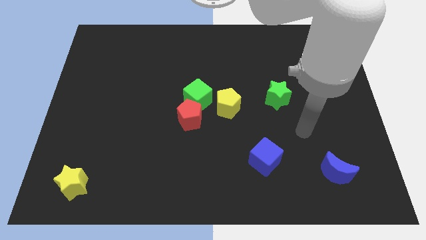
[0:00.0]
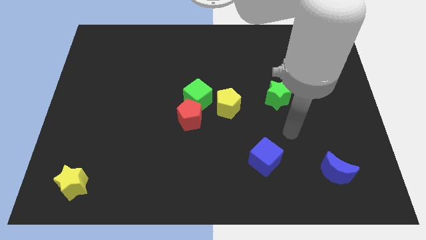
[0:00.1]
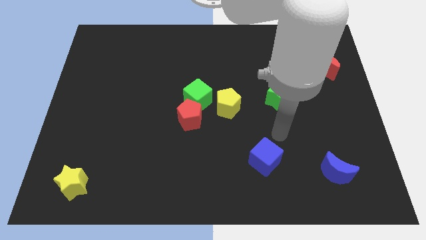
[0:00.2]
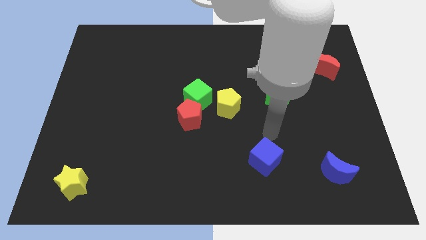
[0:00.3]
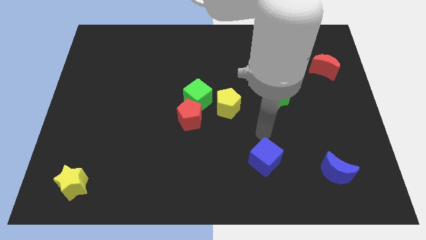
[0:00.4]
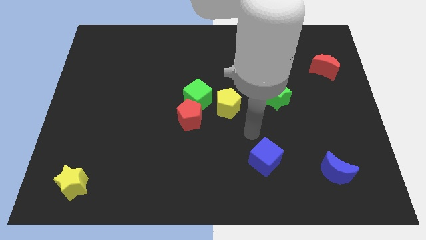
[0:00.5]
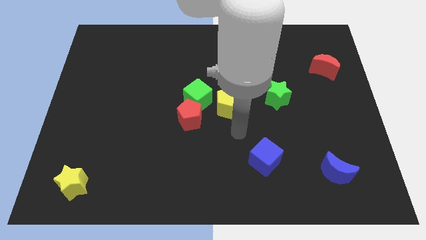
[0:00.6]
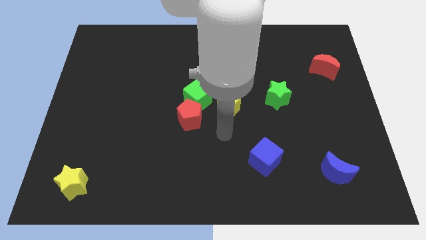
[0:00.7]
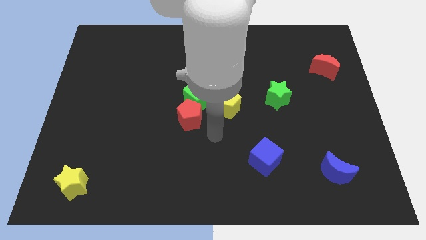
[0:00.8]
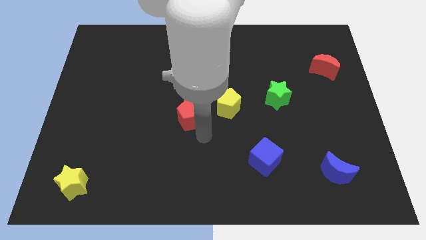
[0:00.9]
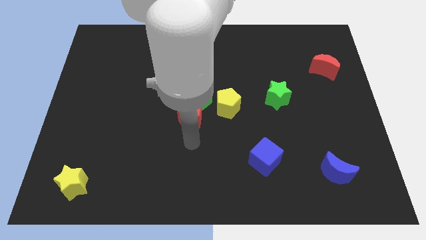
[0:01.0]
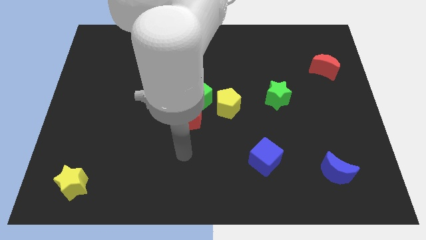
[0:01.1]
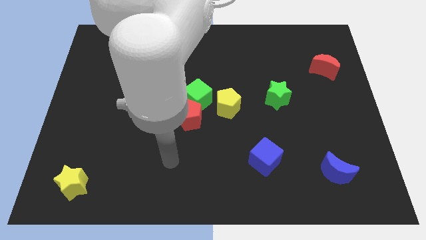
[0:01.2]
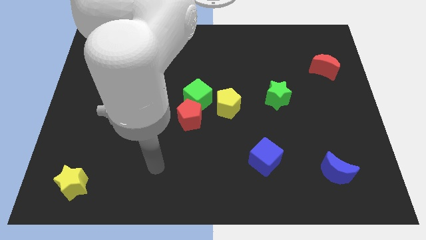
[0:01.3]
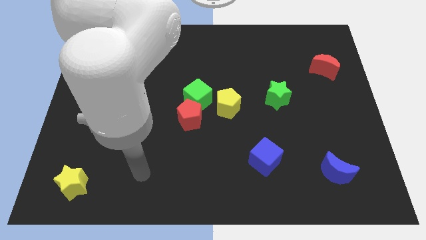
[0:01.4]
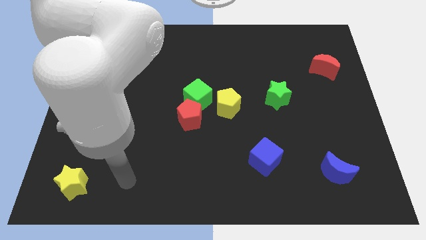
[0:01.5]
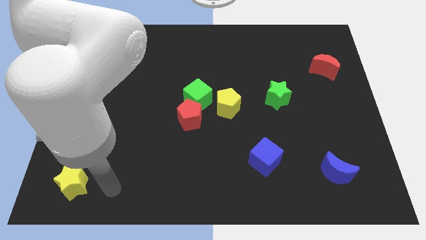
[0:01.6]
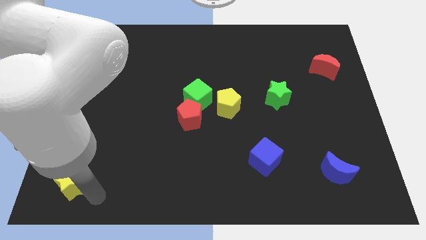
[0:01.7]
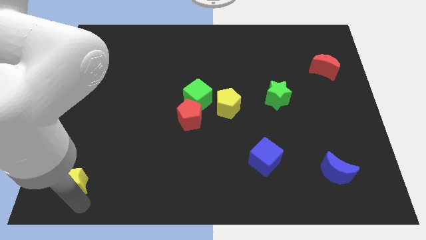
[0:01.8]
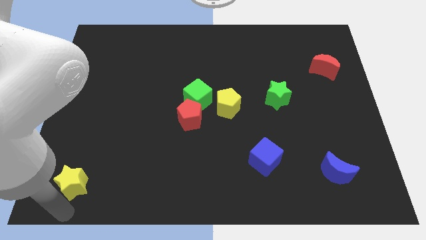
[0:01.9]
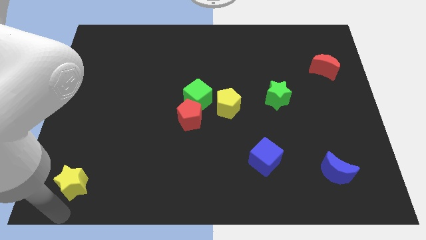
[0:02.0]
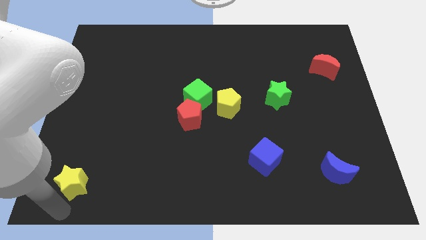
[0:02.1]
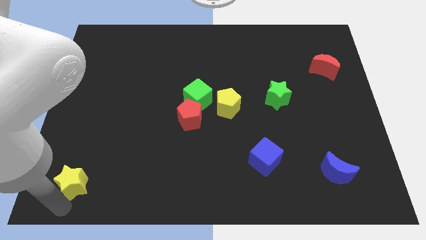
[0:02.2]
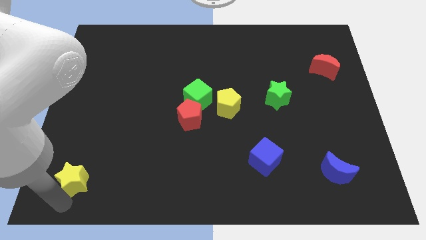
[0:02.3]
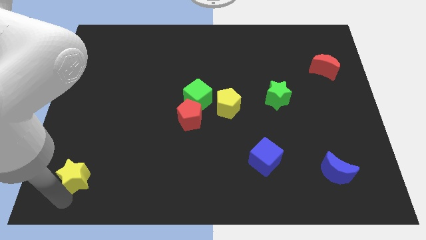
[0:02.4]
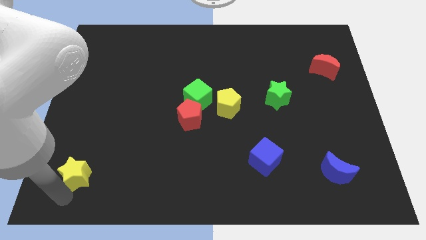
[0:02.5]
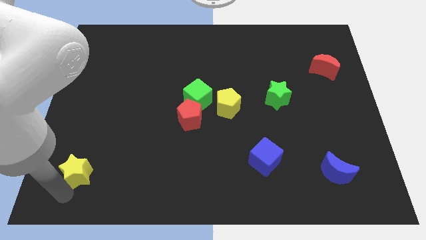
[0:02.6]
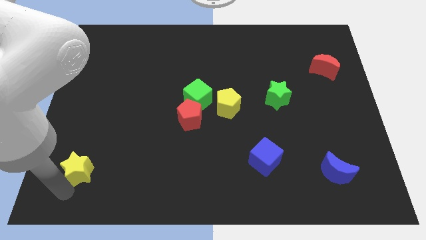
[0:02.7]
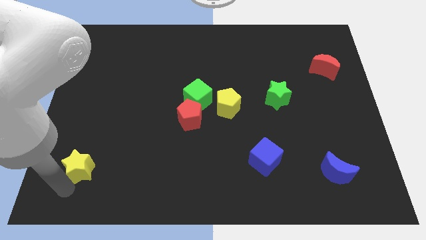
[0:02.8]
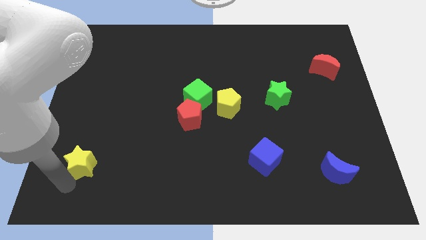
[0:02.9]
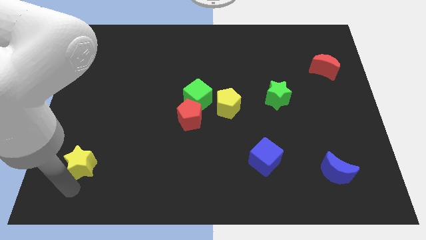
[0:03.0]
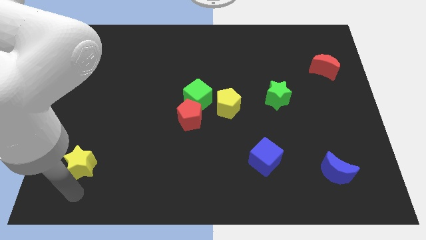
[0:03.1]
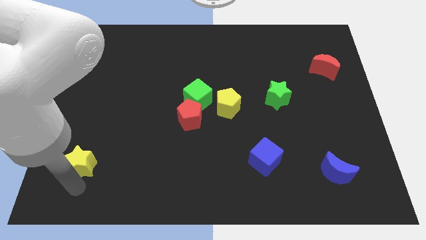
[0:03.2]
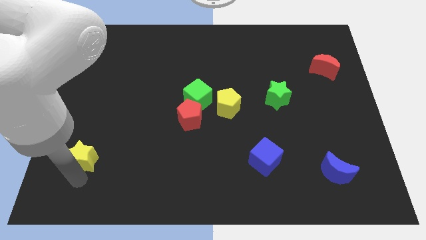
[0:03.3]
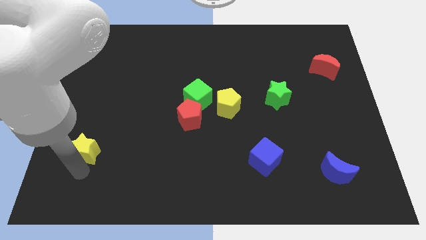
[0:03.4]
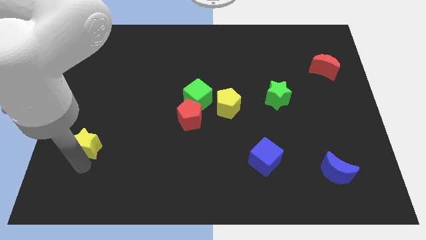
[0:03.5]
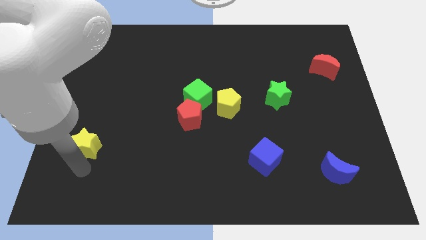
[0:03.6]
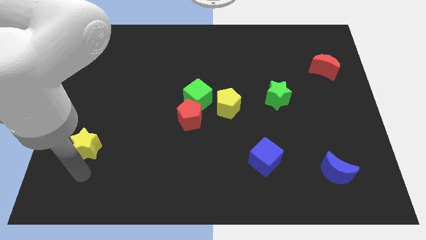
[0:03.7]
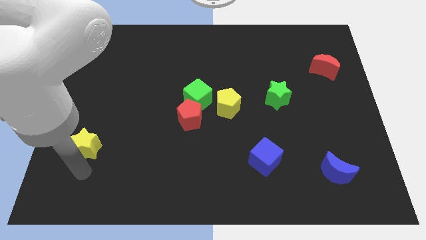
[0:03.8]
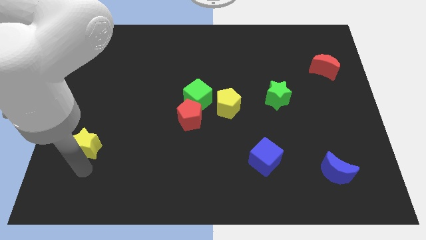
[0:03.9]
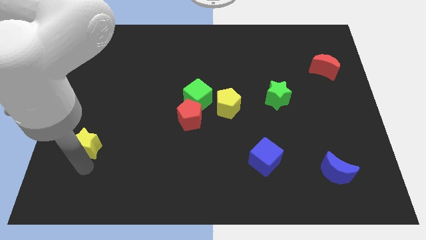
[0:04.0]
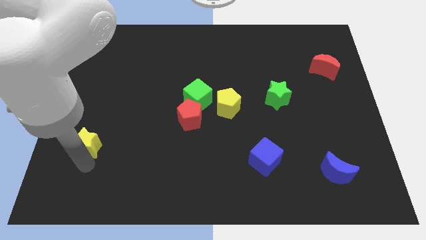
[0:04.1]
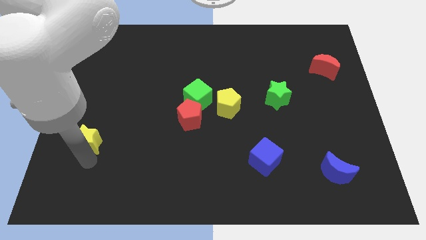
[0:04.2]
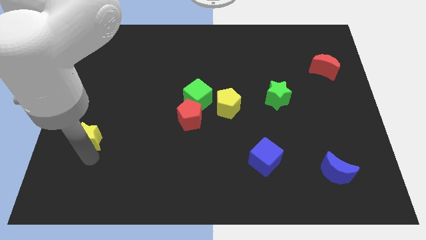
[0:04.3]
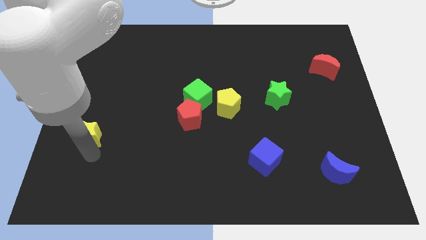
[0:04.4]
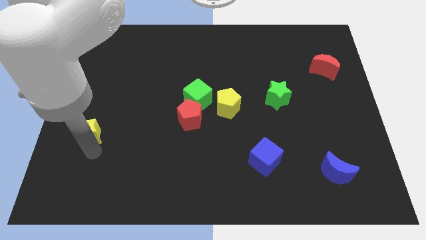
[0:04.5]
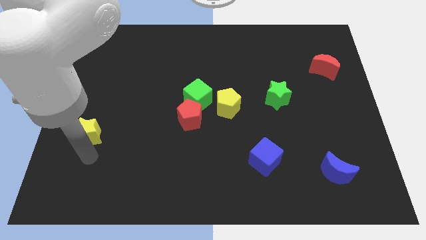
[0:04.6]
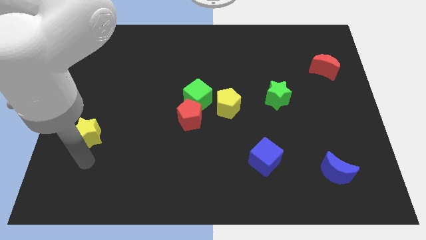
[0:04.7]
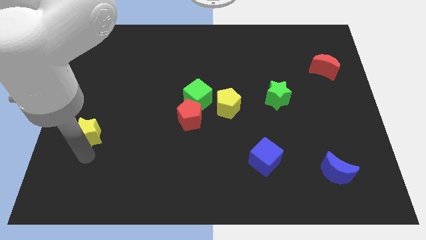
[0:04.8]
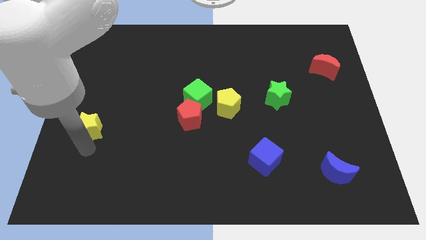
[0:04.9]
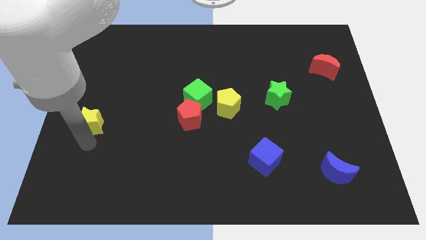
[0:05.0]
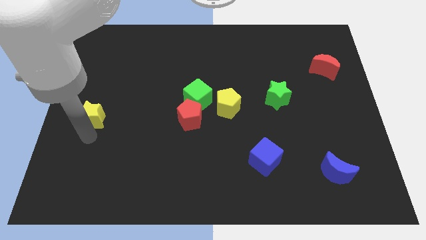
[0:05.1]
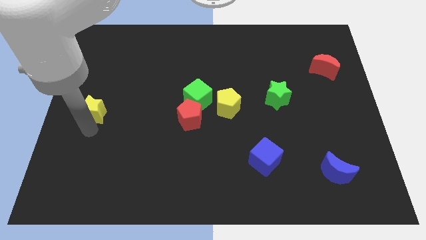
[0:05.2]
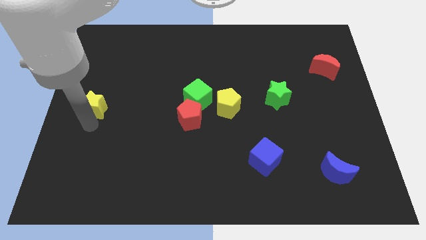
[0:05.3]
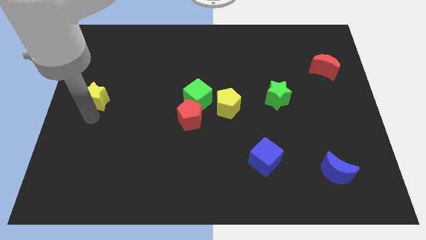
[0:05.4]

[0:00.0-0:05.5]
move the yellow star upwards

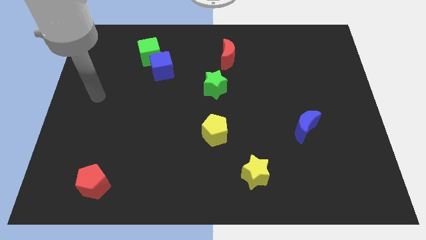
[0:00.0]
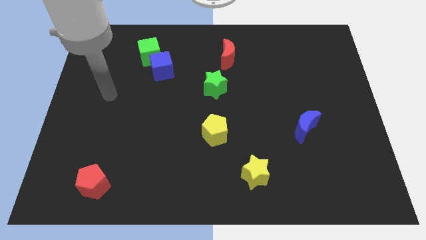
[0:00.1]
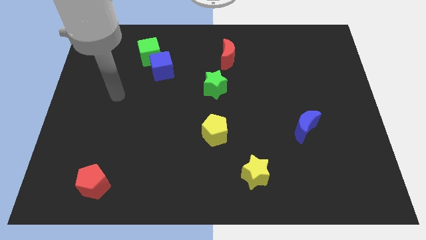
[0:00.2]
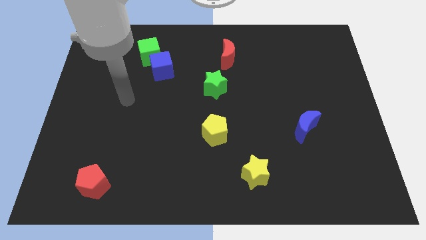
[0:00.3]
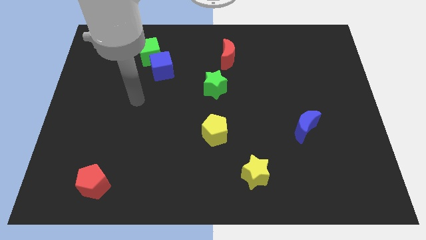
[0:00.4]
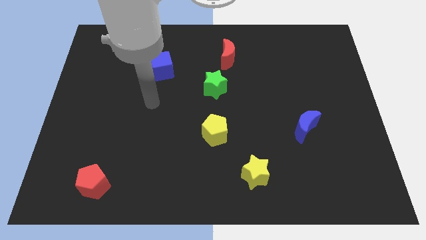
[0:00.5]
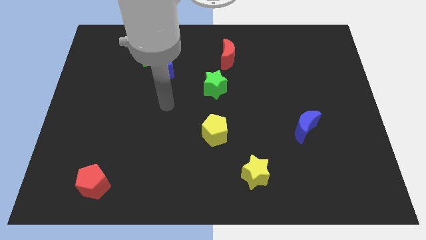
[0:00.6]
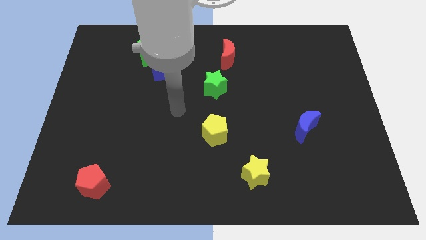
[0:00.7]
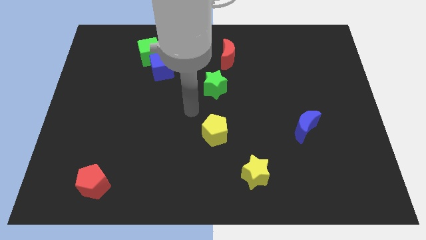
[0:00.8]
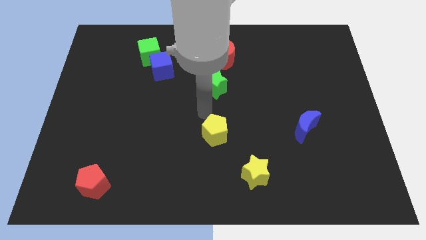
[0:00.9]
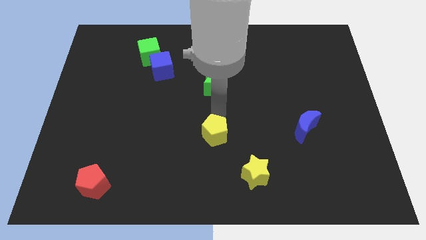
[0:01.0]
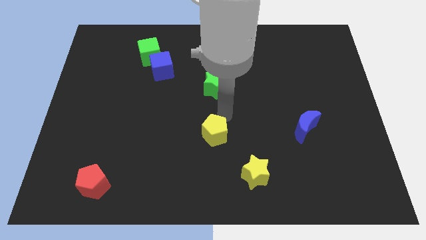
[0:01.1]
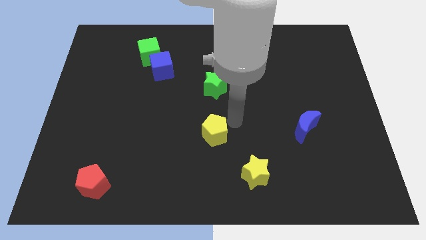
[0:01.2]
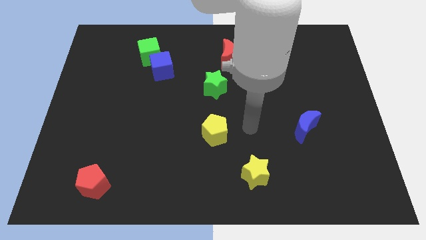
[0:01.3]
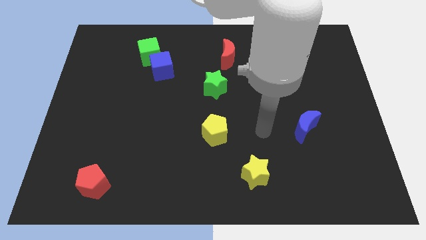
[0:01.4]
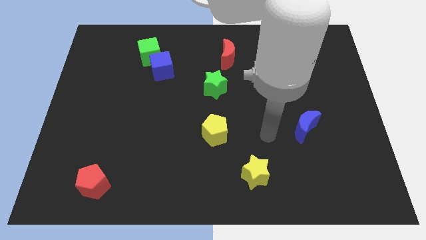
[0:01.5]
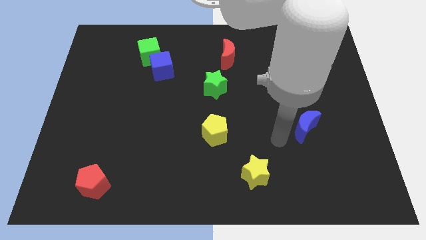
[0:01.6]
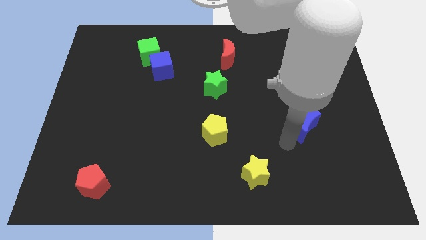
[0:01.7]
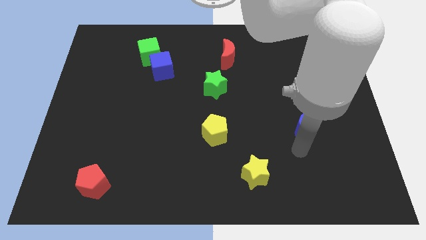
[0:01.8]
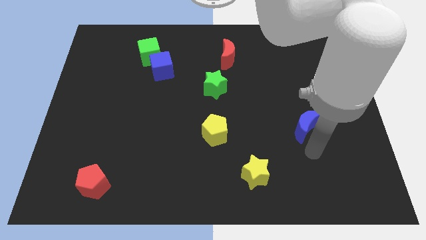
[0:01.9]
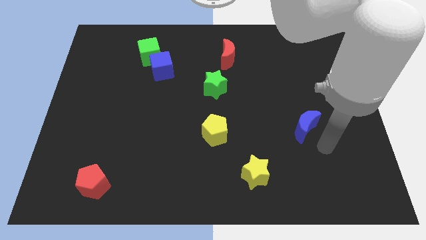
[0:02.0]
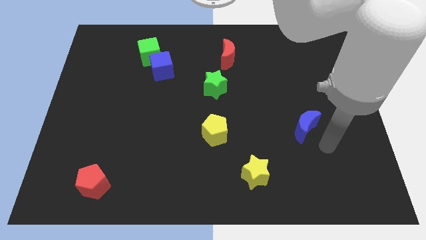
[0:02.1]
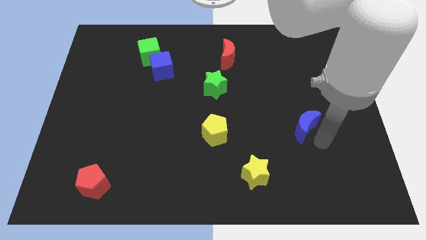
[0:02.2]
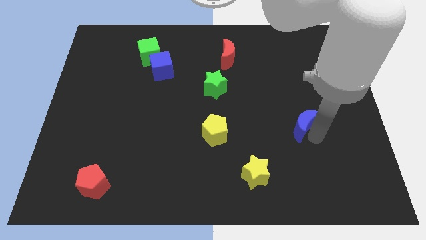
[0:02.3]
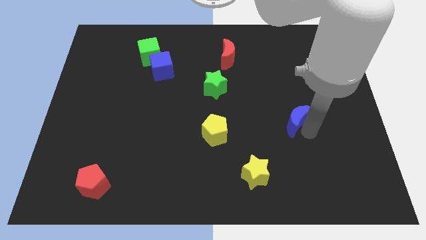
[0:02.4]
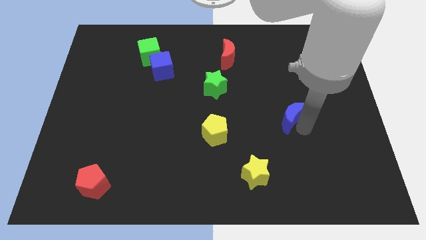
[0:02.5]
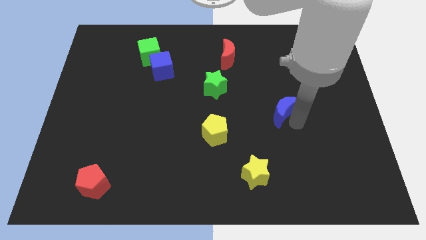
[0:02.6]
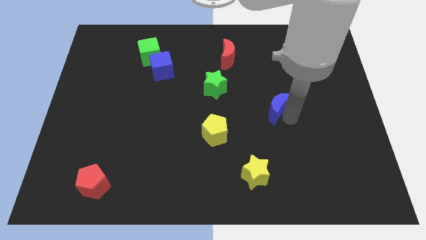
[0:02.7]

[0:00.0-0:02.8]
move the blue moon upwards and left a little
